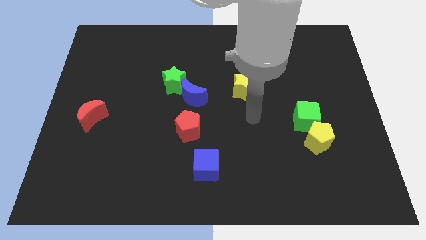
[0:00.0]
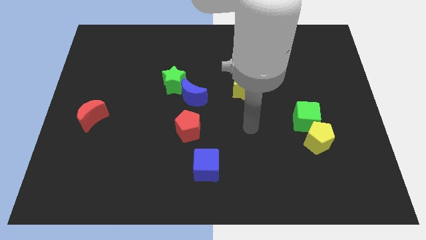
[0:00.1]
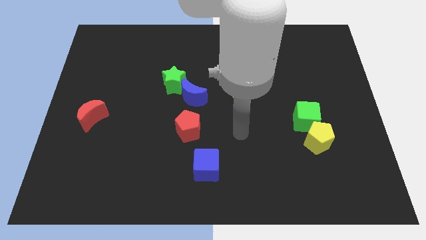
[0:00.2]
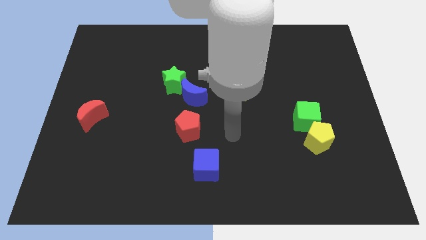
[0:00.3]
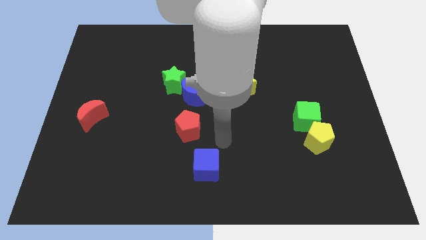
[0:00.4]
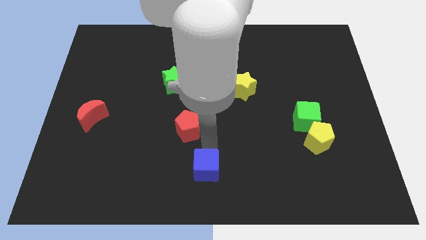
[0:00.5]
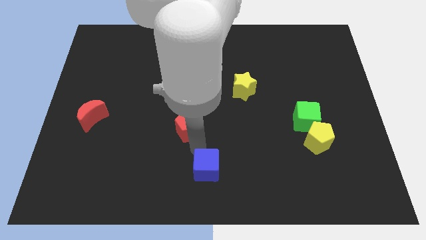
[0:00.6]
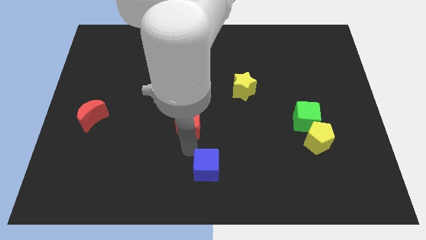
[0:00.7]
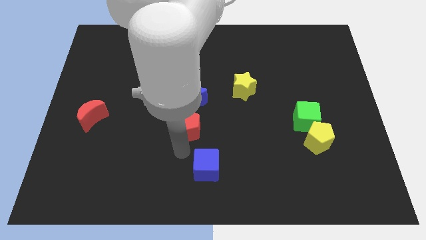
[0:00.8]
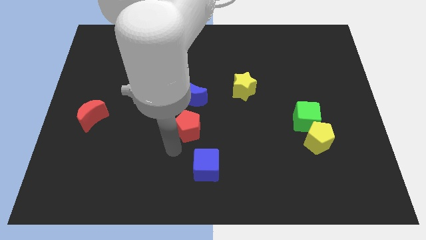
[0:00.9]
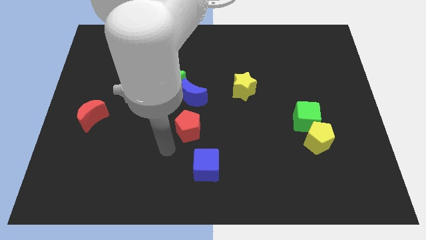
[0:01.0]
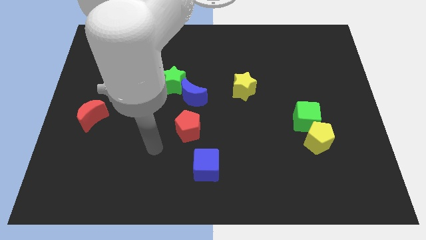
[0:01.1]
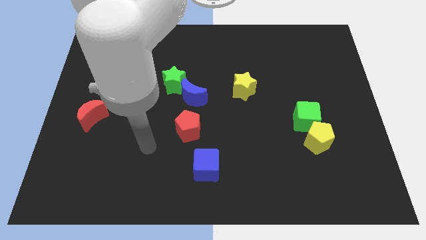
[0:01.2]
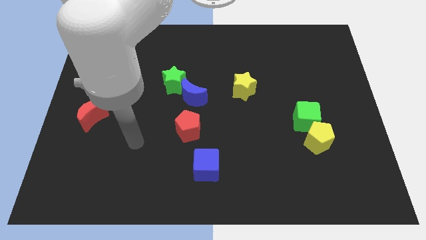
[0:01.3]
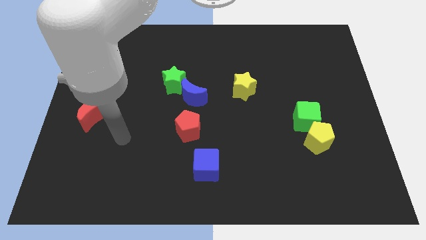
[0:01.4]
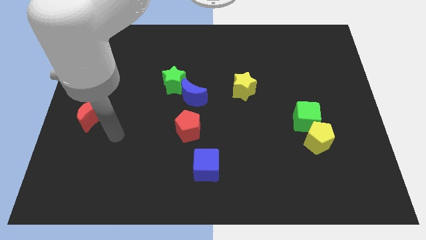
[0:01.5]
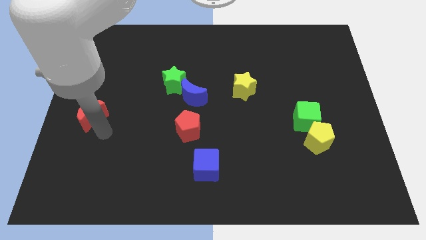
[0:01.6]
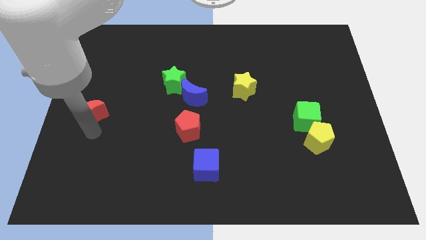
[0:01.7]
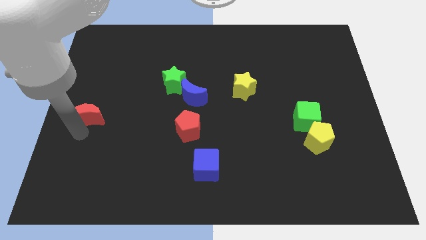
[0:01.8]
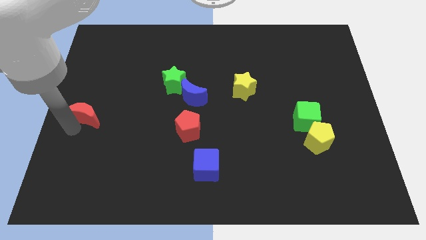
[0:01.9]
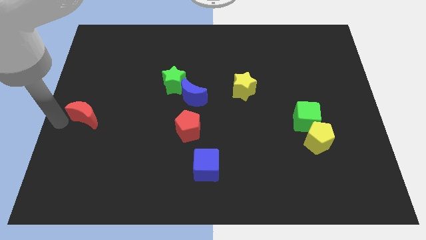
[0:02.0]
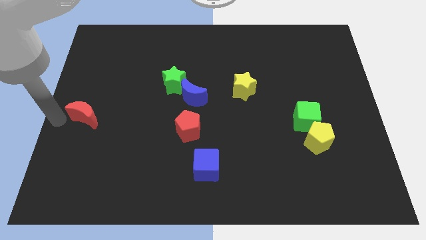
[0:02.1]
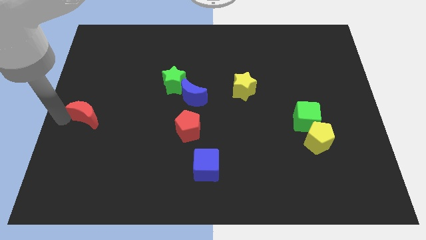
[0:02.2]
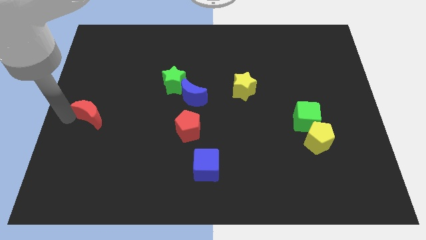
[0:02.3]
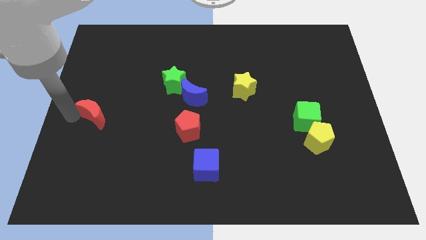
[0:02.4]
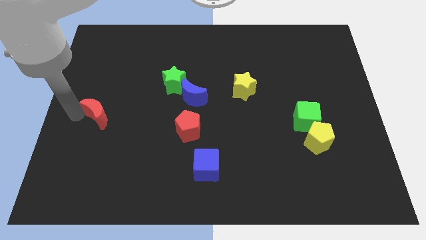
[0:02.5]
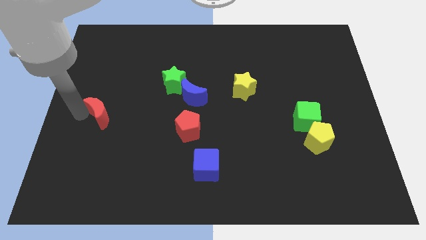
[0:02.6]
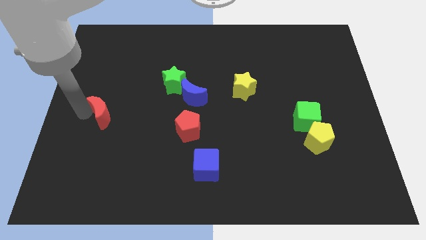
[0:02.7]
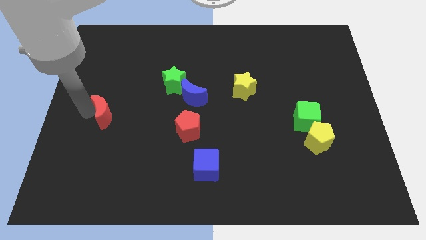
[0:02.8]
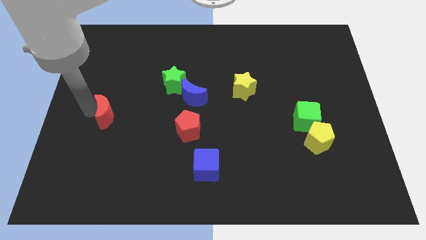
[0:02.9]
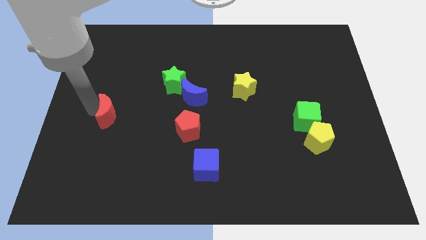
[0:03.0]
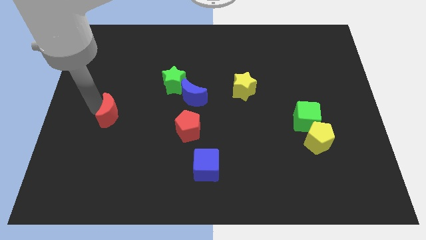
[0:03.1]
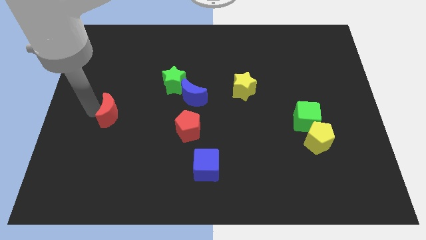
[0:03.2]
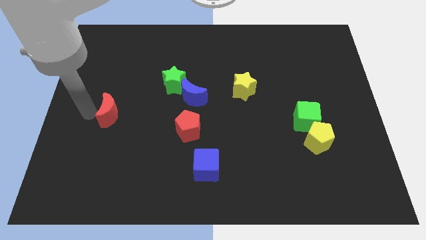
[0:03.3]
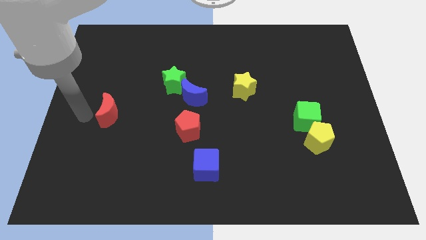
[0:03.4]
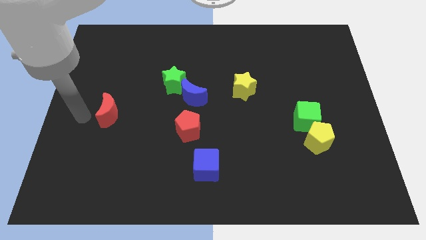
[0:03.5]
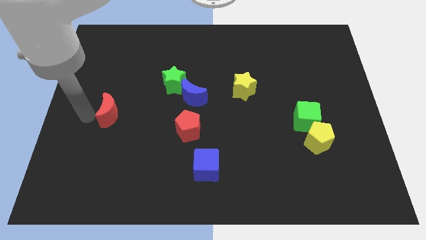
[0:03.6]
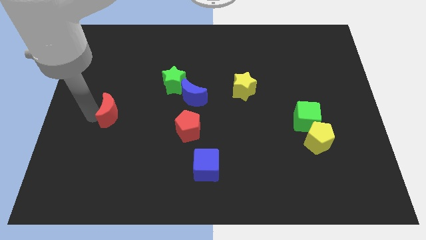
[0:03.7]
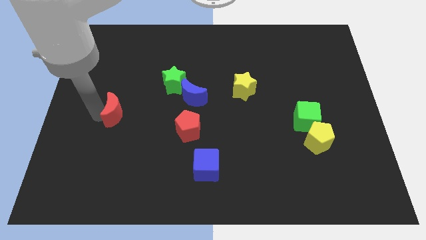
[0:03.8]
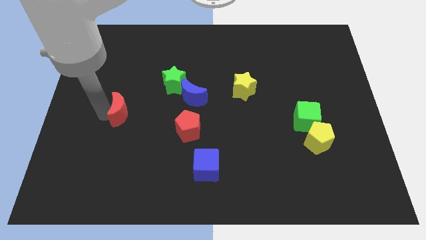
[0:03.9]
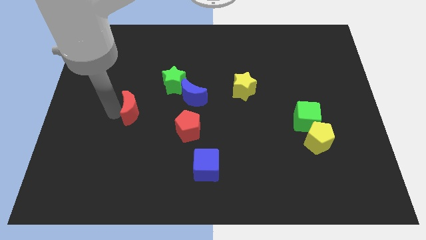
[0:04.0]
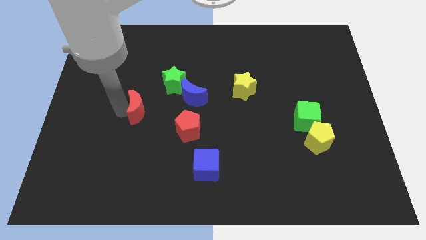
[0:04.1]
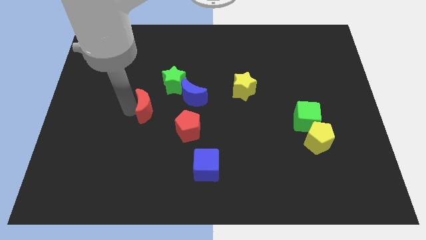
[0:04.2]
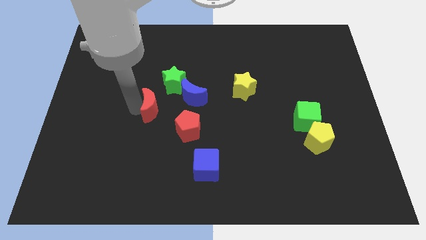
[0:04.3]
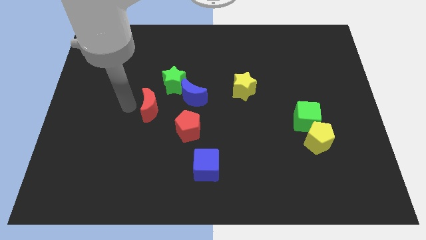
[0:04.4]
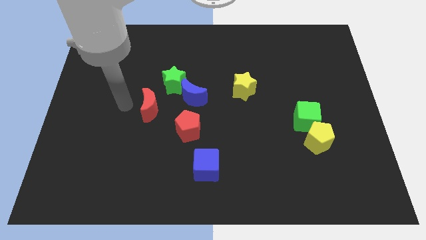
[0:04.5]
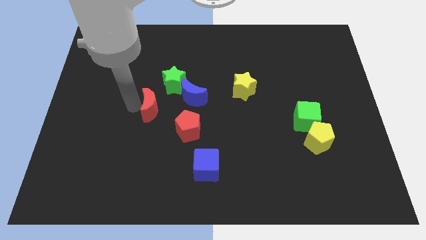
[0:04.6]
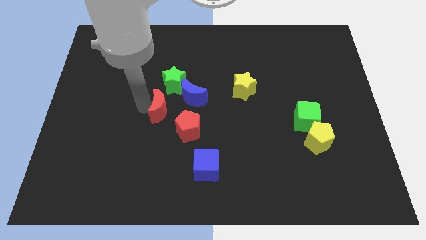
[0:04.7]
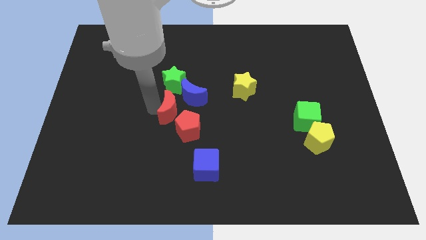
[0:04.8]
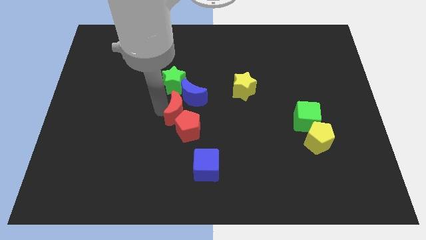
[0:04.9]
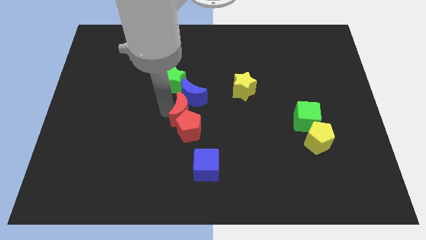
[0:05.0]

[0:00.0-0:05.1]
push the red moon to the right

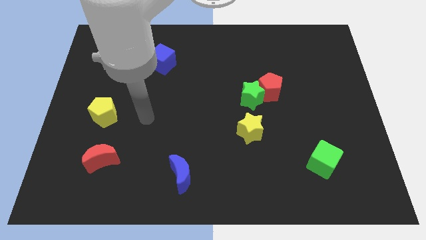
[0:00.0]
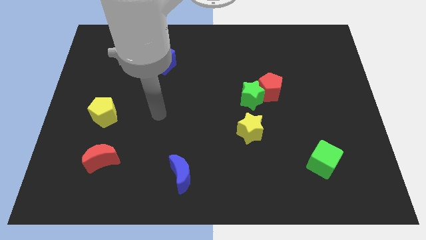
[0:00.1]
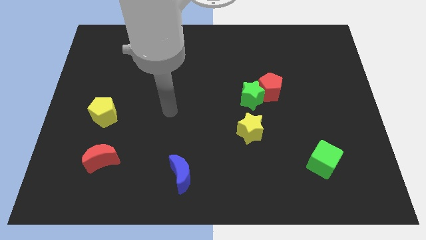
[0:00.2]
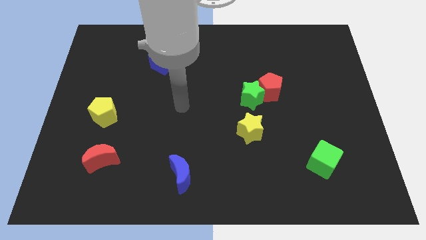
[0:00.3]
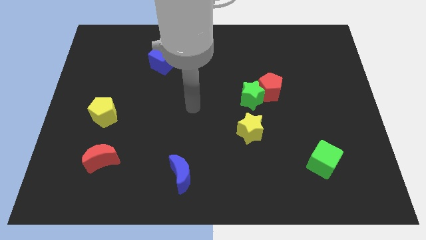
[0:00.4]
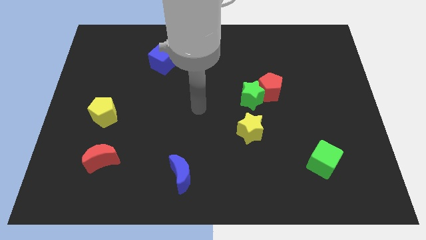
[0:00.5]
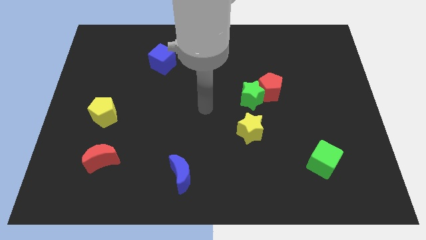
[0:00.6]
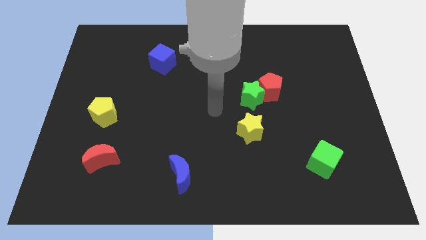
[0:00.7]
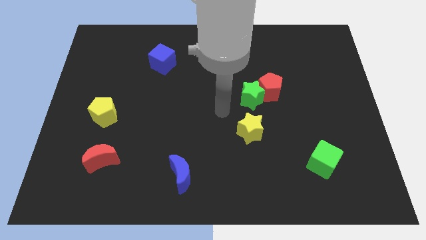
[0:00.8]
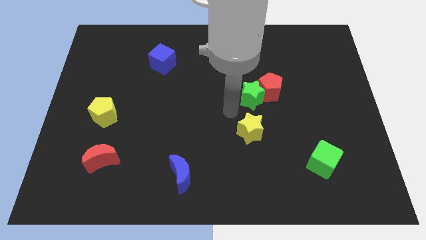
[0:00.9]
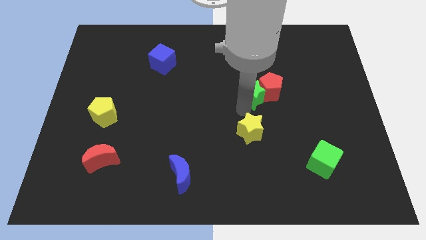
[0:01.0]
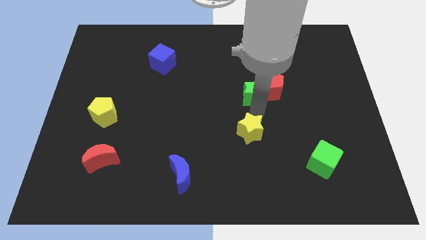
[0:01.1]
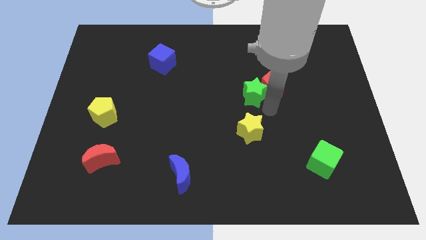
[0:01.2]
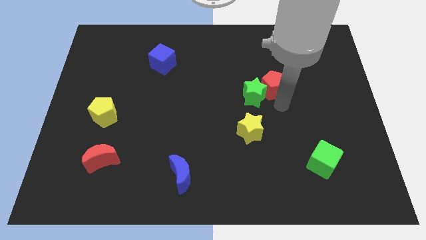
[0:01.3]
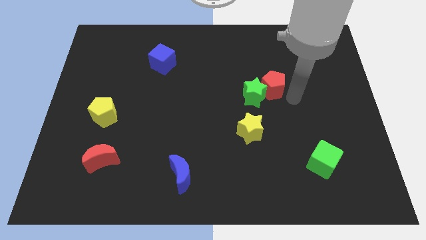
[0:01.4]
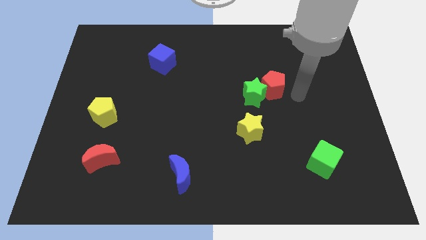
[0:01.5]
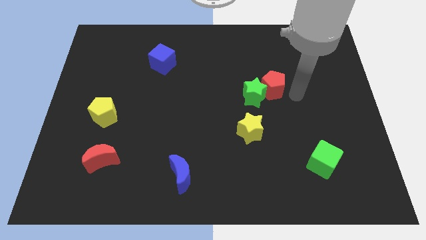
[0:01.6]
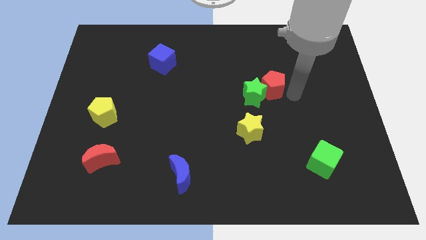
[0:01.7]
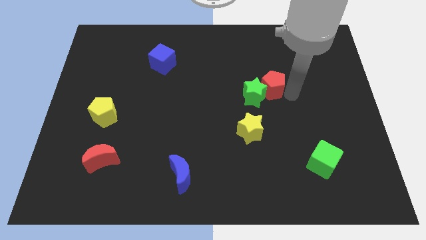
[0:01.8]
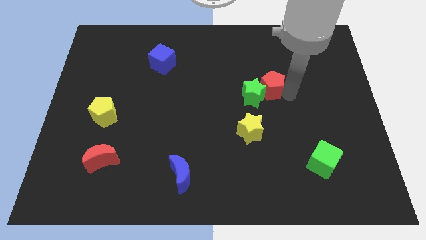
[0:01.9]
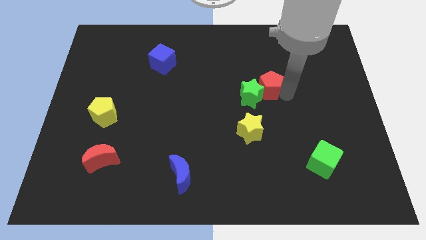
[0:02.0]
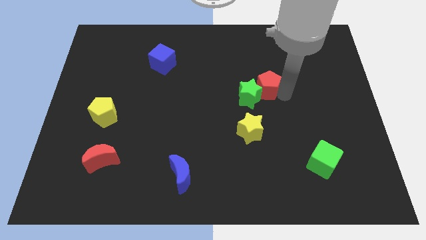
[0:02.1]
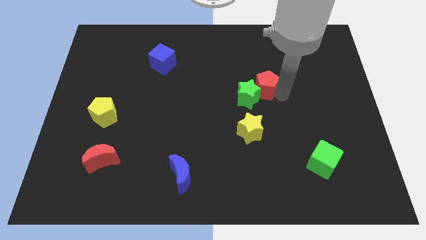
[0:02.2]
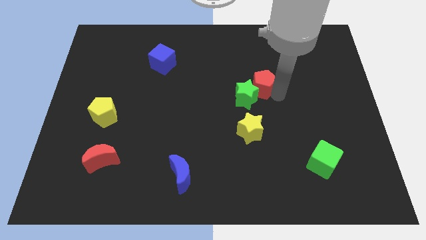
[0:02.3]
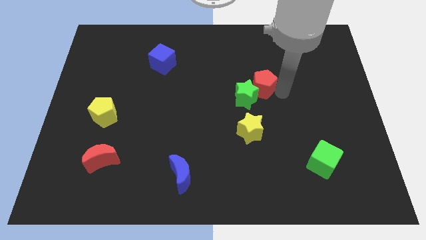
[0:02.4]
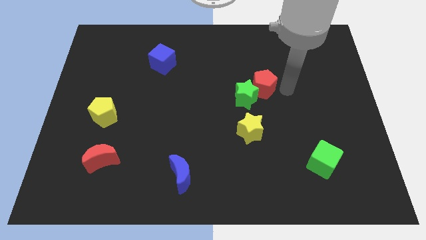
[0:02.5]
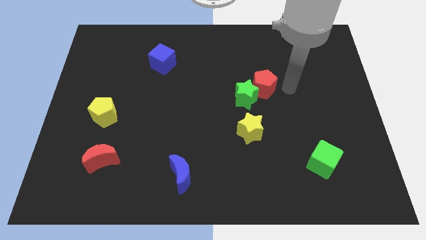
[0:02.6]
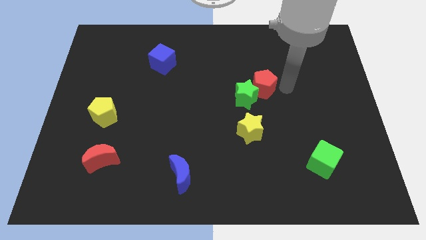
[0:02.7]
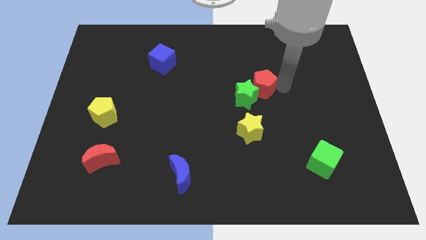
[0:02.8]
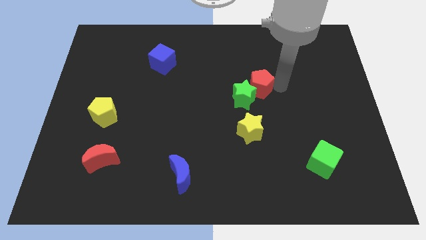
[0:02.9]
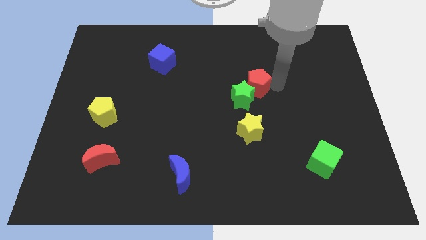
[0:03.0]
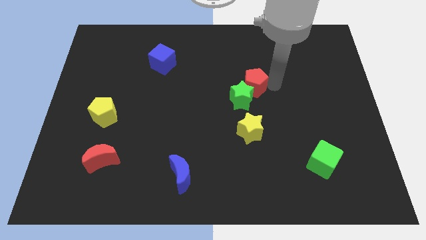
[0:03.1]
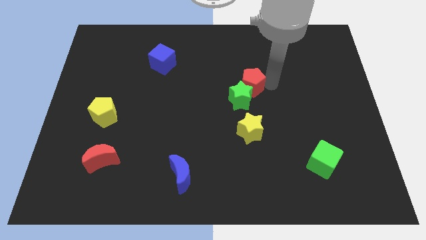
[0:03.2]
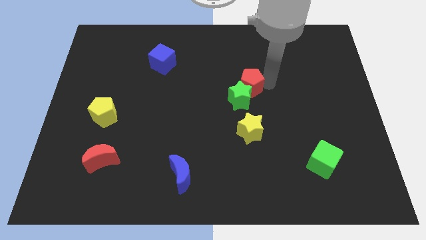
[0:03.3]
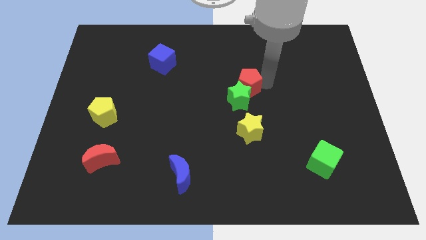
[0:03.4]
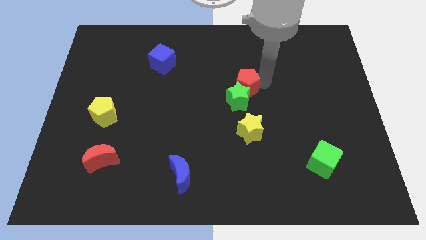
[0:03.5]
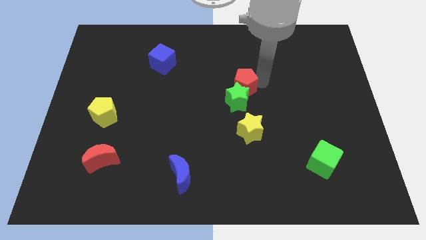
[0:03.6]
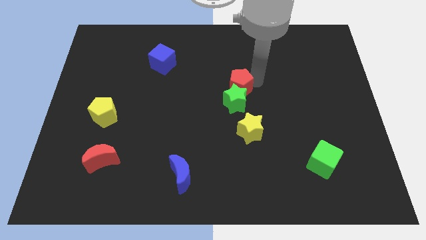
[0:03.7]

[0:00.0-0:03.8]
slightly push the red pentagon left
